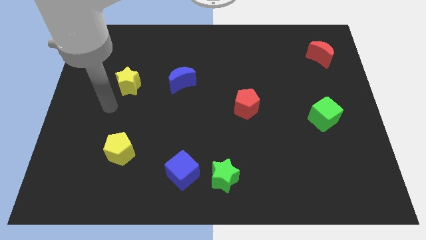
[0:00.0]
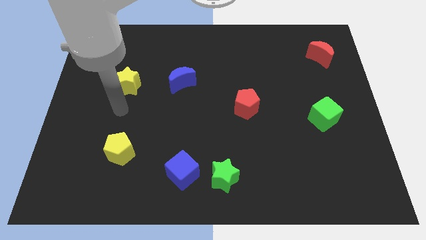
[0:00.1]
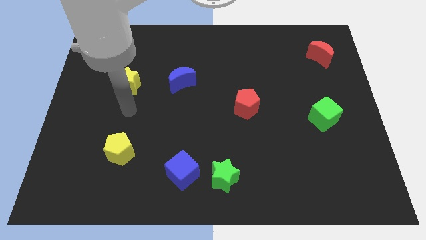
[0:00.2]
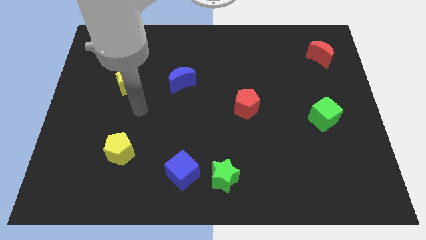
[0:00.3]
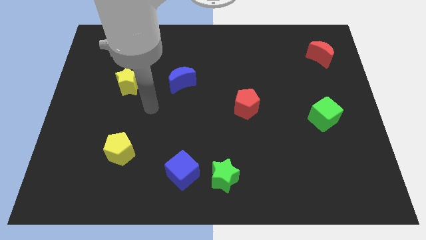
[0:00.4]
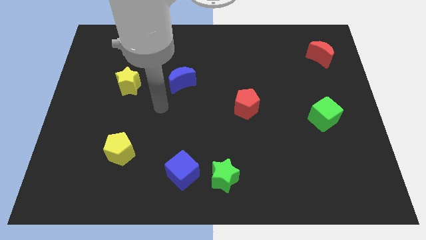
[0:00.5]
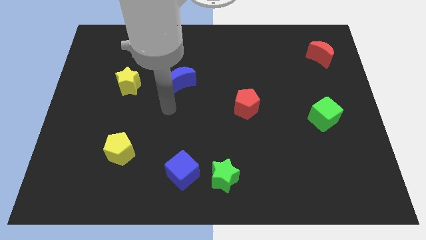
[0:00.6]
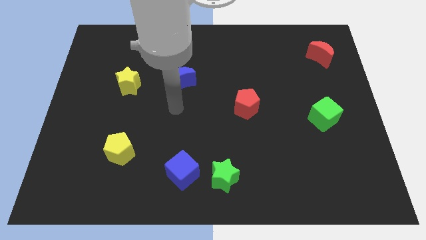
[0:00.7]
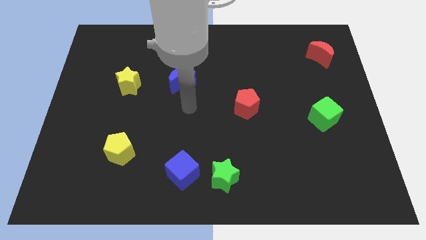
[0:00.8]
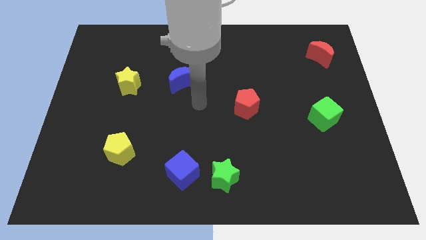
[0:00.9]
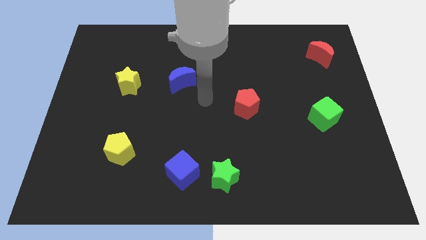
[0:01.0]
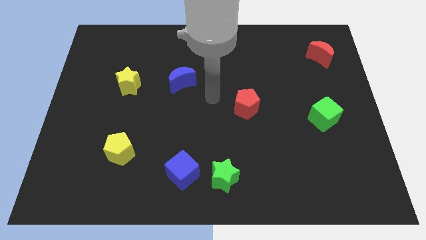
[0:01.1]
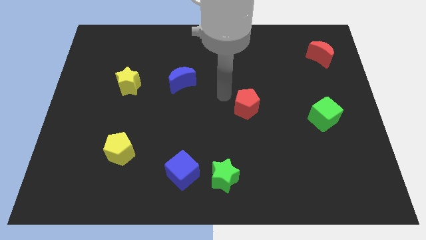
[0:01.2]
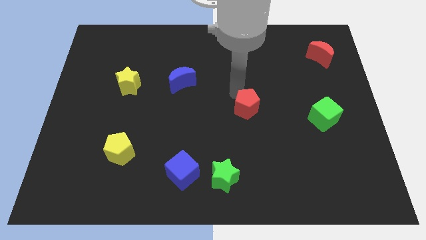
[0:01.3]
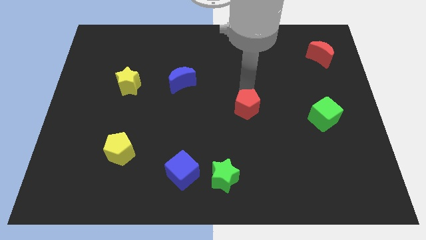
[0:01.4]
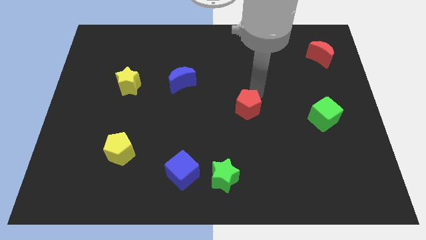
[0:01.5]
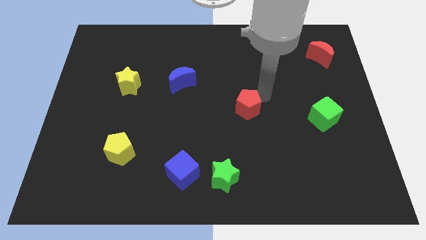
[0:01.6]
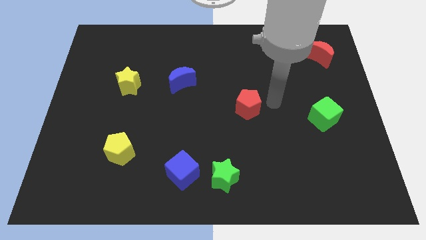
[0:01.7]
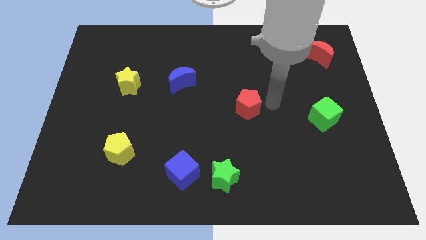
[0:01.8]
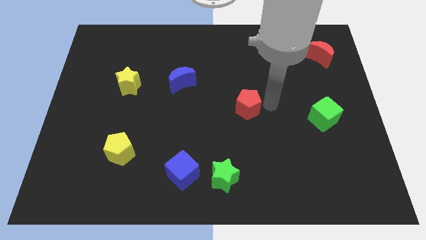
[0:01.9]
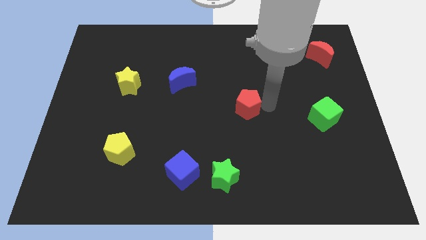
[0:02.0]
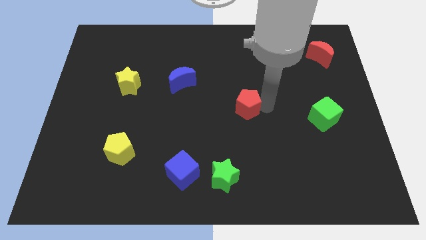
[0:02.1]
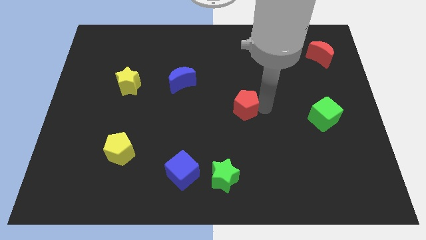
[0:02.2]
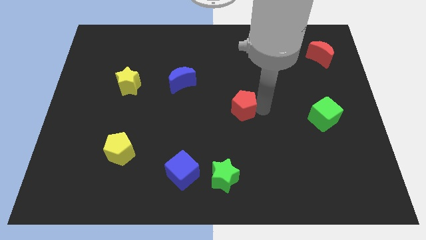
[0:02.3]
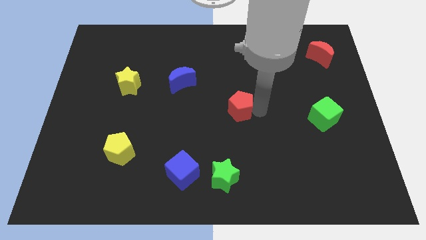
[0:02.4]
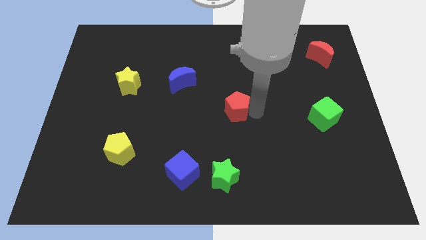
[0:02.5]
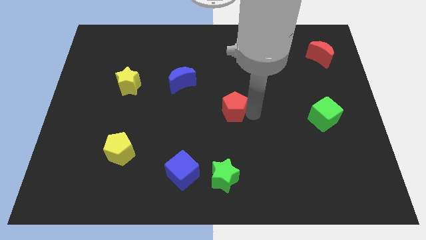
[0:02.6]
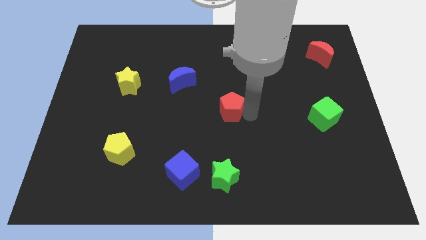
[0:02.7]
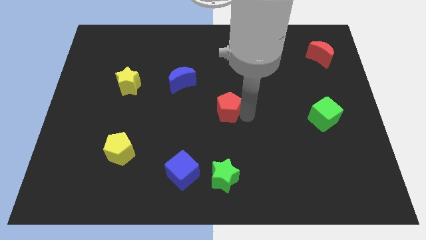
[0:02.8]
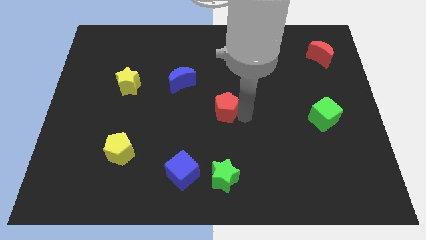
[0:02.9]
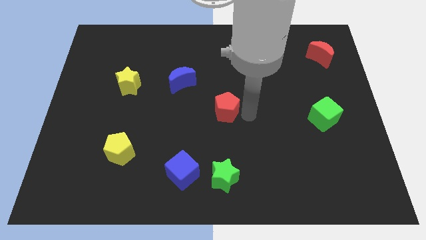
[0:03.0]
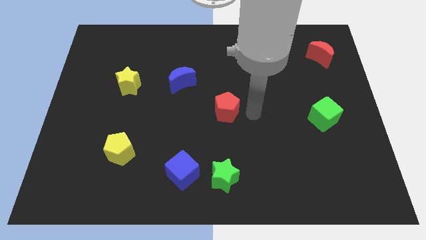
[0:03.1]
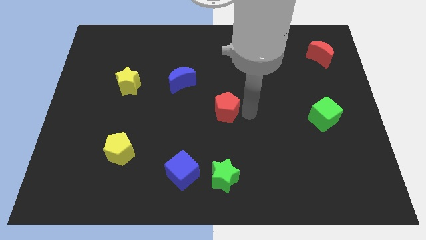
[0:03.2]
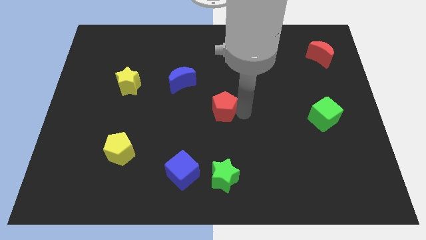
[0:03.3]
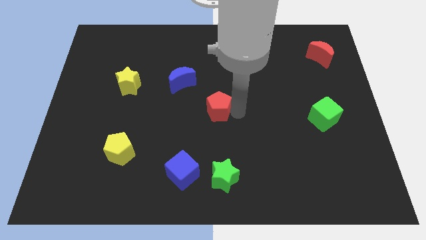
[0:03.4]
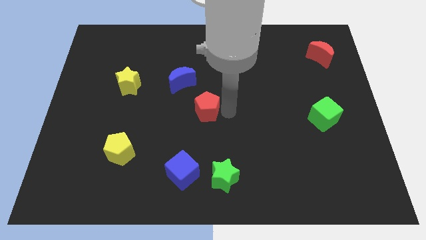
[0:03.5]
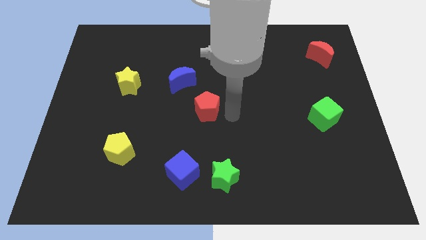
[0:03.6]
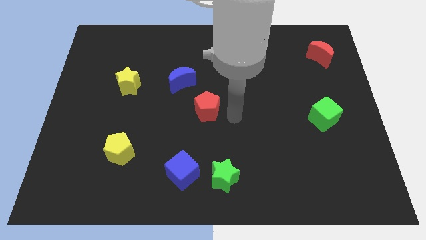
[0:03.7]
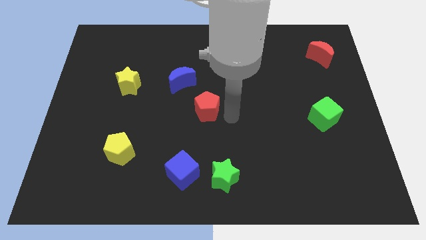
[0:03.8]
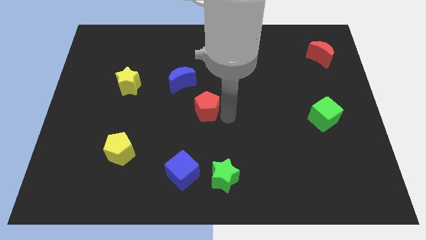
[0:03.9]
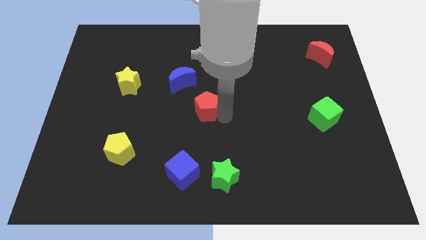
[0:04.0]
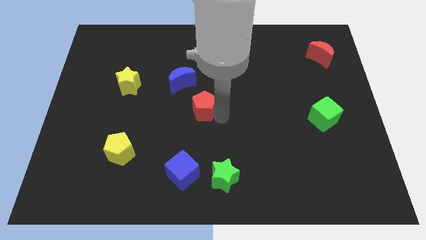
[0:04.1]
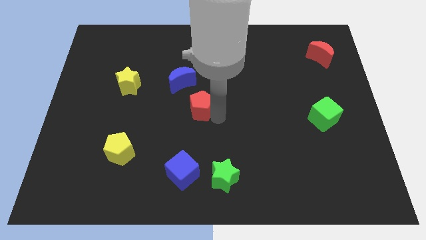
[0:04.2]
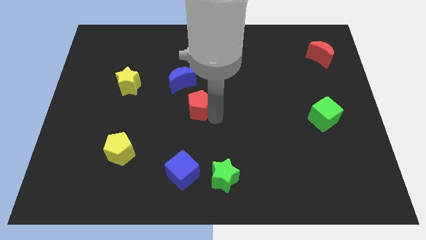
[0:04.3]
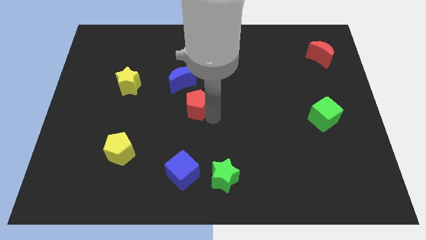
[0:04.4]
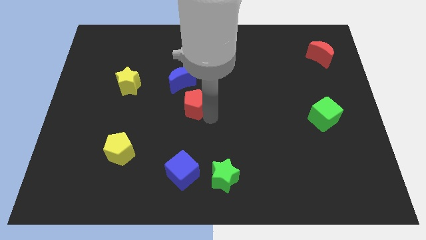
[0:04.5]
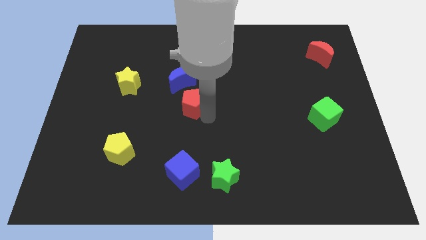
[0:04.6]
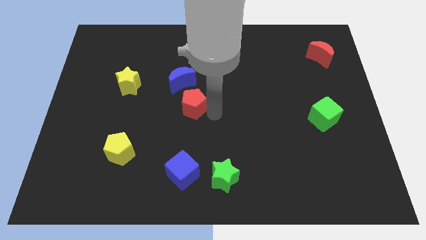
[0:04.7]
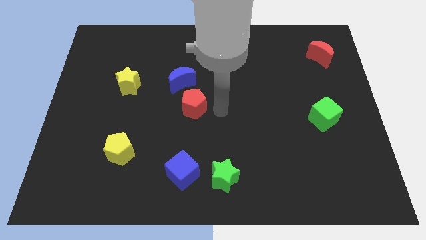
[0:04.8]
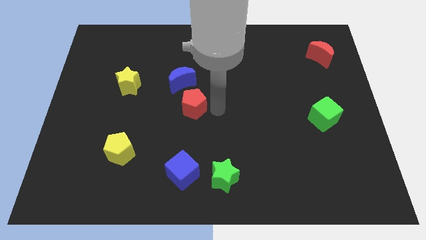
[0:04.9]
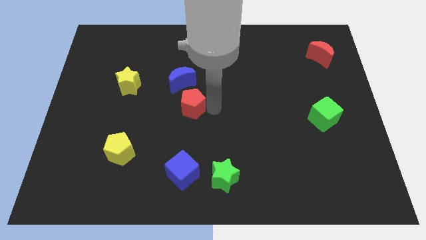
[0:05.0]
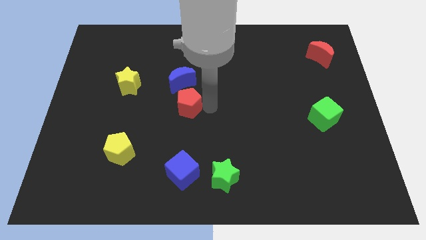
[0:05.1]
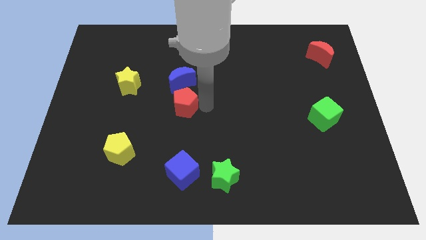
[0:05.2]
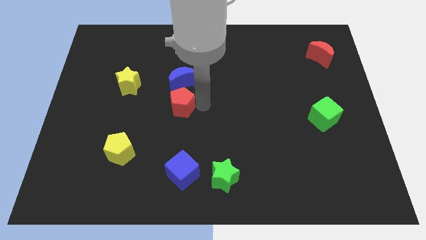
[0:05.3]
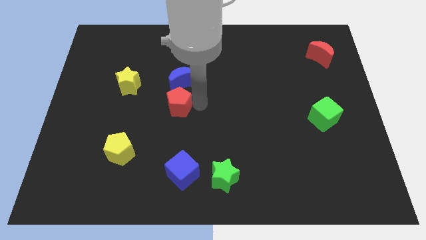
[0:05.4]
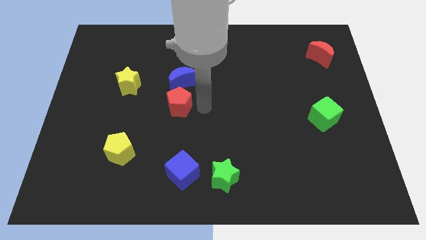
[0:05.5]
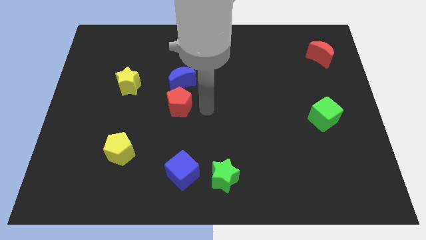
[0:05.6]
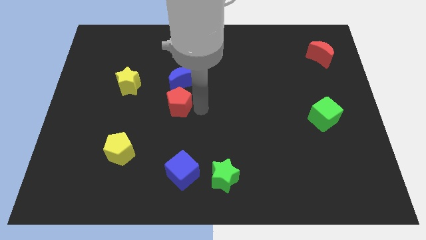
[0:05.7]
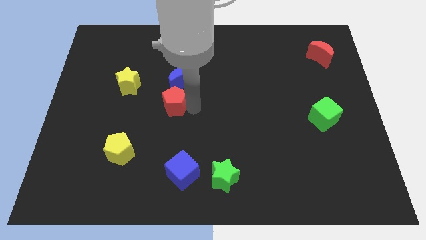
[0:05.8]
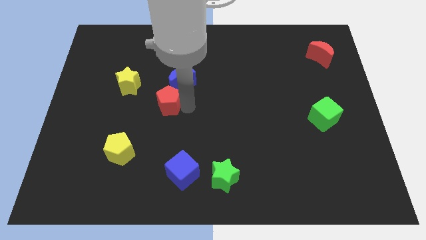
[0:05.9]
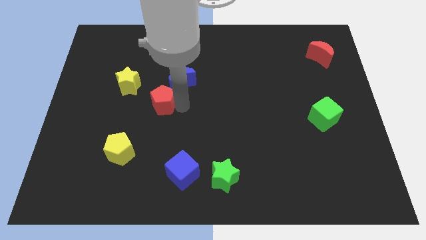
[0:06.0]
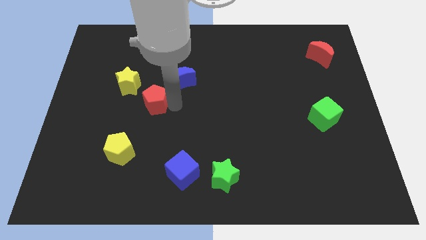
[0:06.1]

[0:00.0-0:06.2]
slide the red pentagon to the left

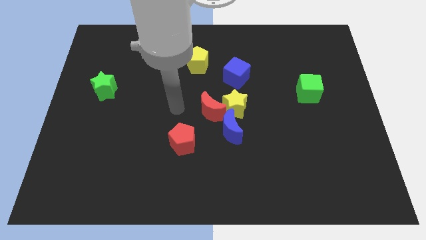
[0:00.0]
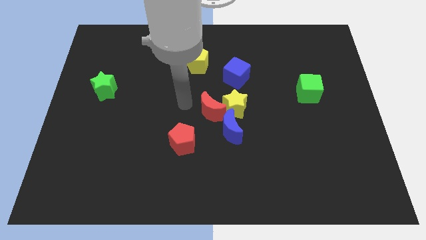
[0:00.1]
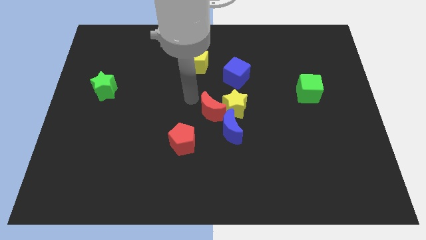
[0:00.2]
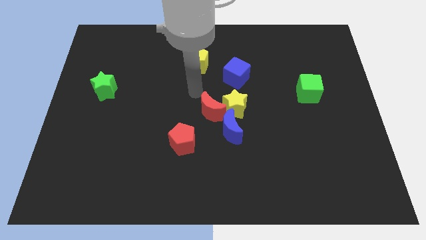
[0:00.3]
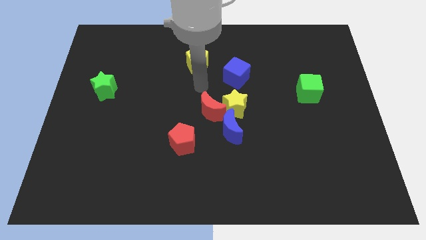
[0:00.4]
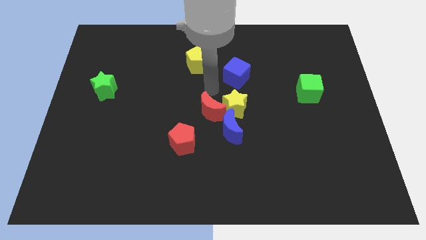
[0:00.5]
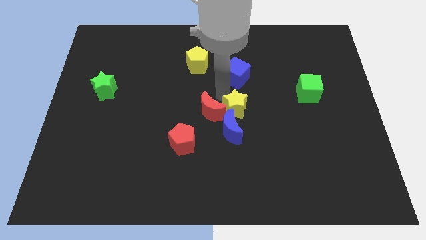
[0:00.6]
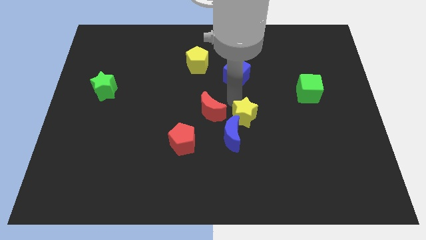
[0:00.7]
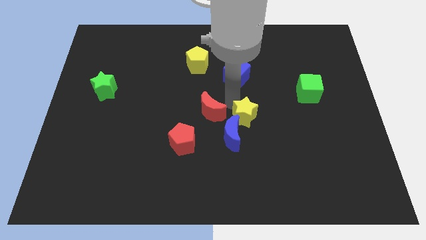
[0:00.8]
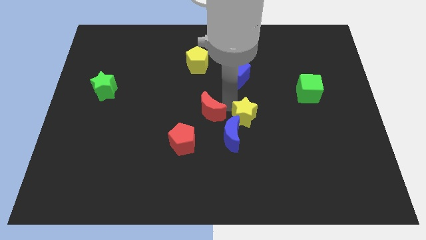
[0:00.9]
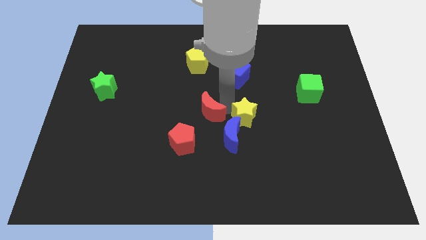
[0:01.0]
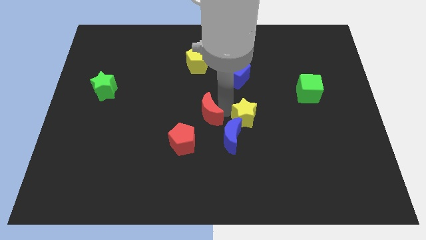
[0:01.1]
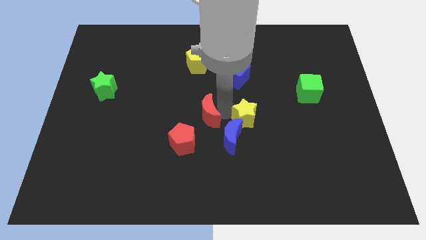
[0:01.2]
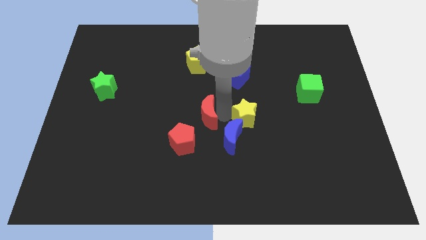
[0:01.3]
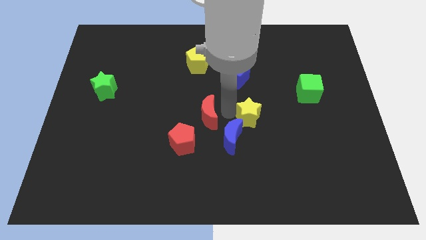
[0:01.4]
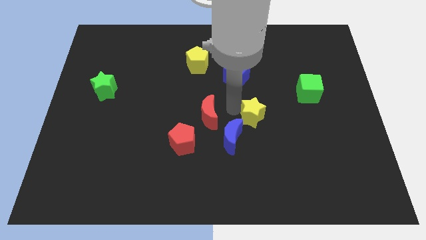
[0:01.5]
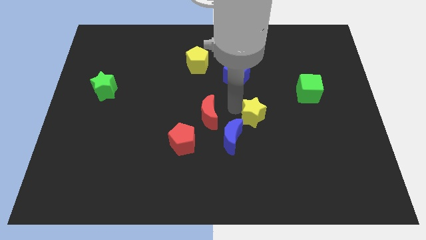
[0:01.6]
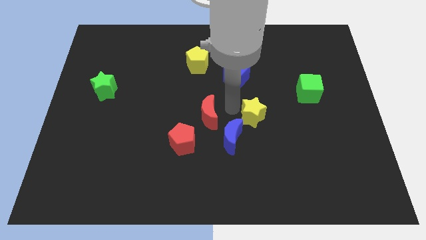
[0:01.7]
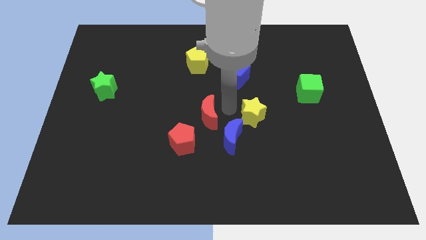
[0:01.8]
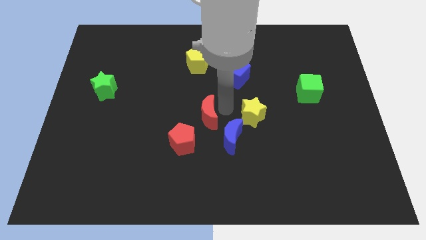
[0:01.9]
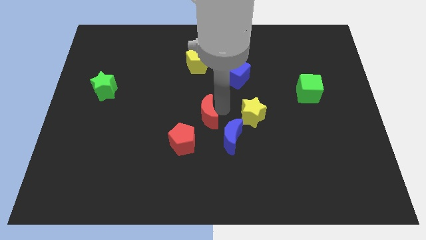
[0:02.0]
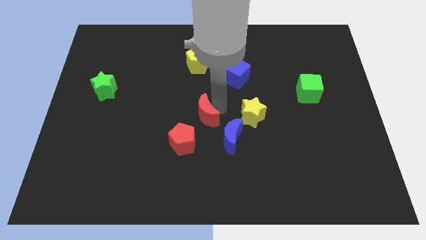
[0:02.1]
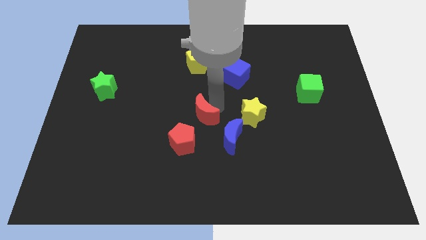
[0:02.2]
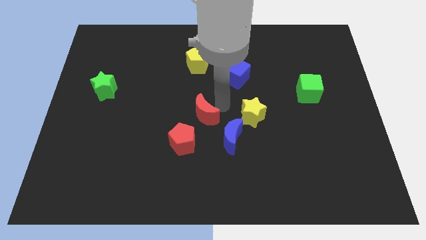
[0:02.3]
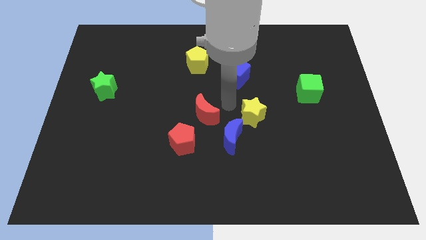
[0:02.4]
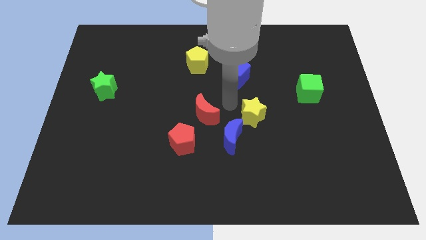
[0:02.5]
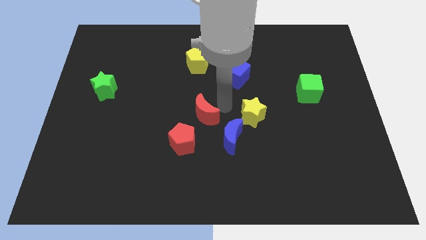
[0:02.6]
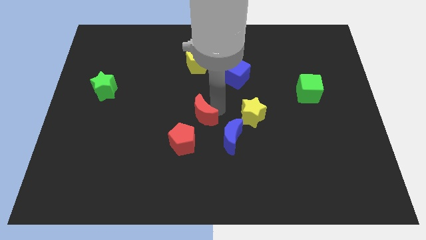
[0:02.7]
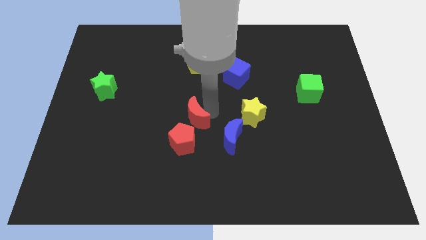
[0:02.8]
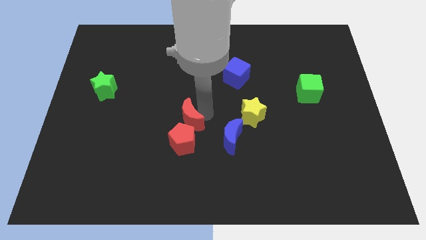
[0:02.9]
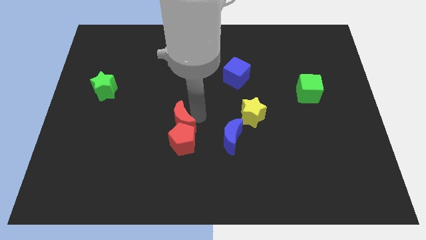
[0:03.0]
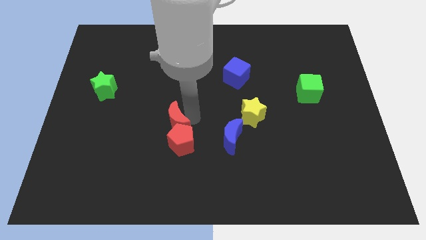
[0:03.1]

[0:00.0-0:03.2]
push the red moon a little diagonally down and left
